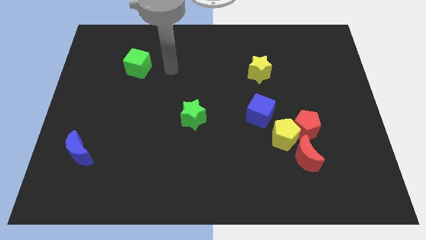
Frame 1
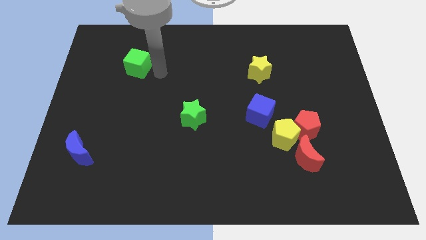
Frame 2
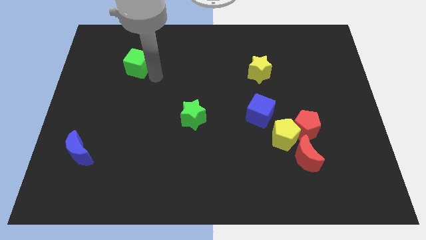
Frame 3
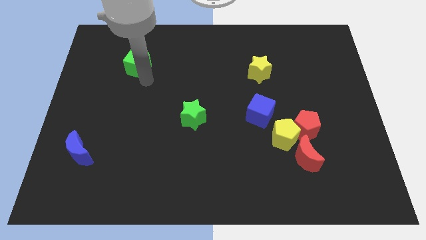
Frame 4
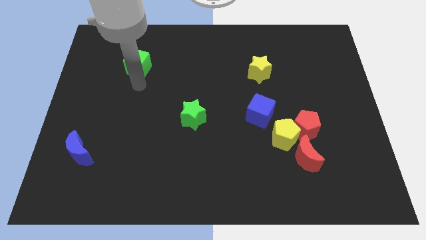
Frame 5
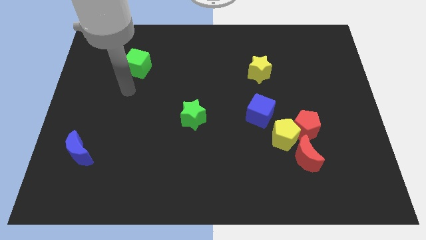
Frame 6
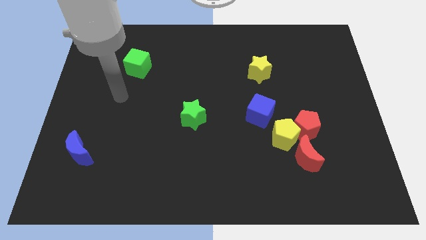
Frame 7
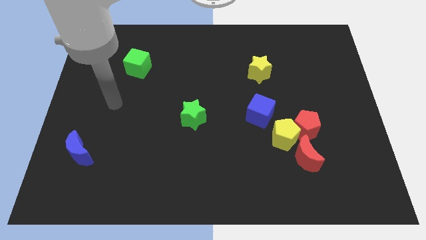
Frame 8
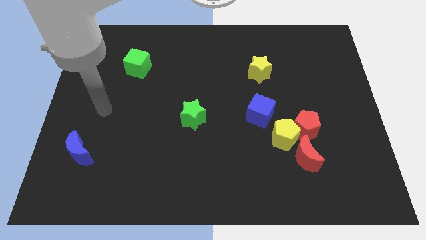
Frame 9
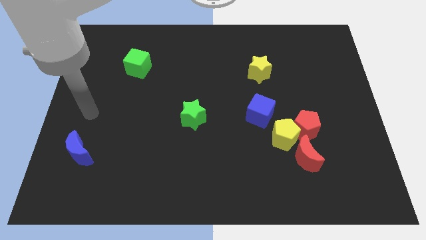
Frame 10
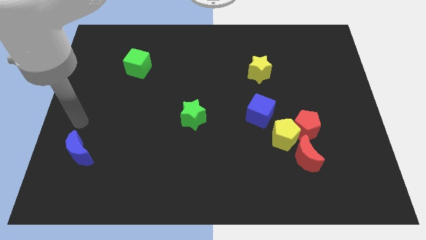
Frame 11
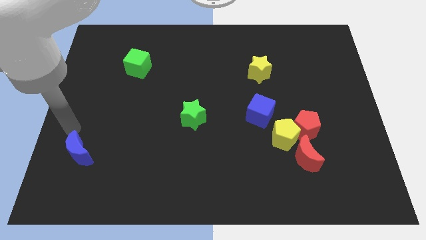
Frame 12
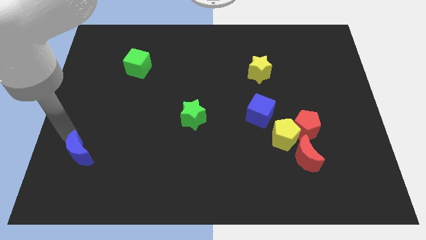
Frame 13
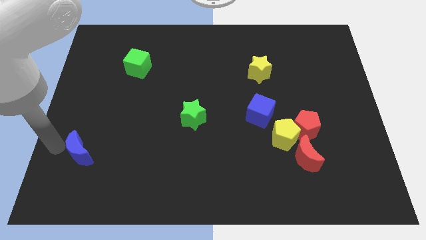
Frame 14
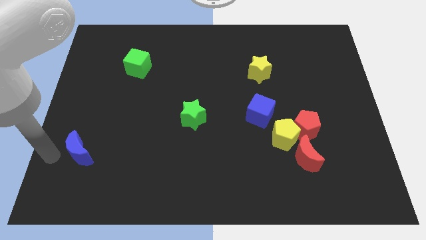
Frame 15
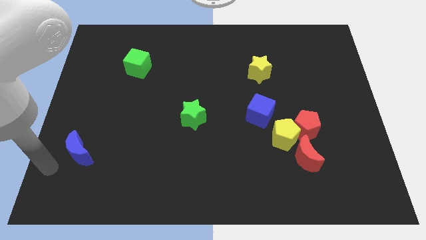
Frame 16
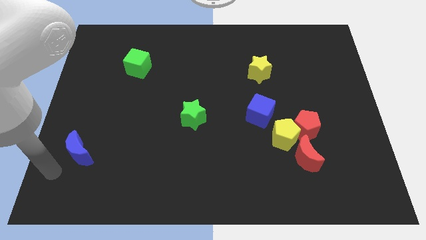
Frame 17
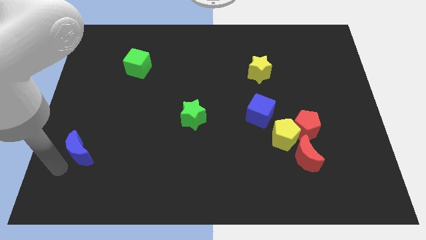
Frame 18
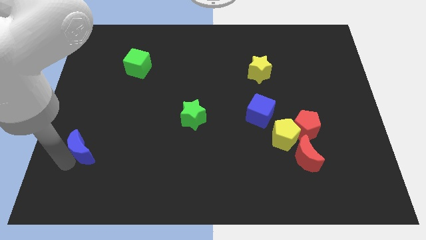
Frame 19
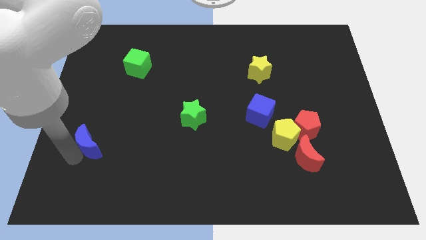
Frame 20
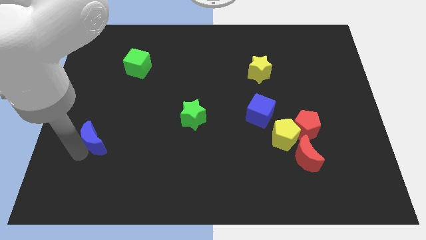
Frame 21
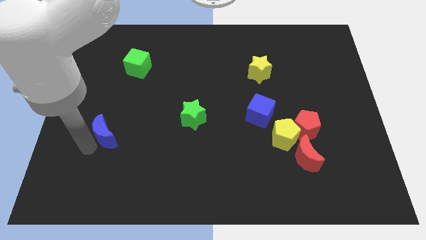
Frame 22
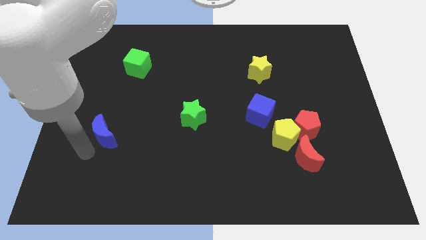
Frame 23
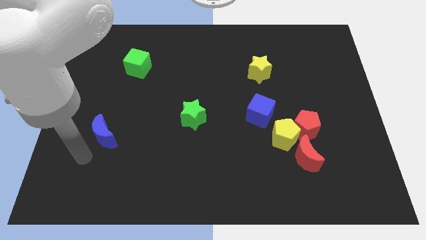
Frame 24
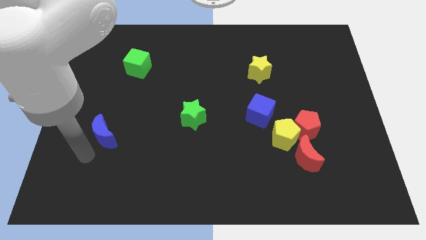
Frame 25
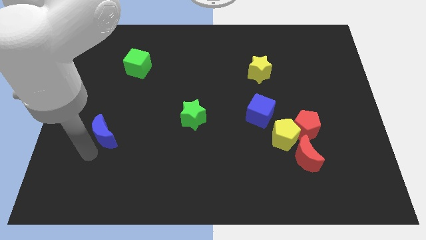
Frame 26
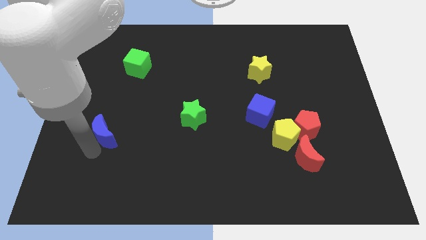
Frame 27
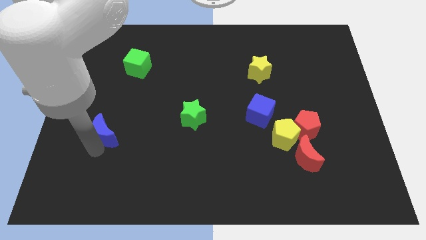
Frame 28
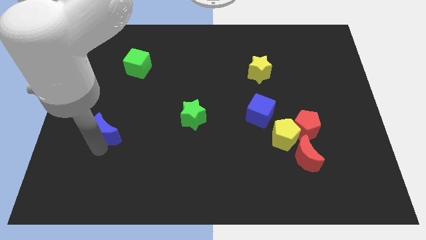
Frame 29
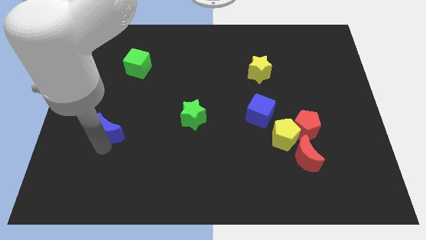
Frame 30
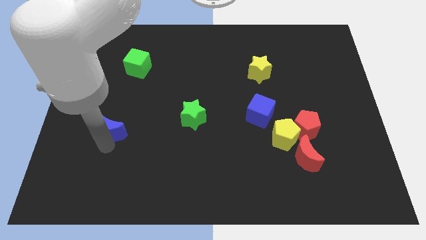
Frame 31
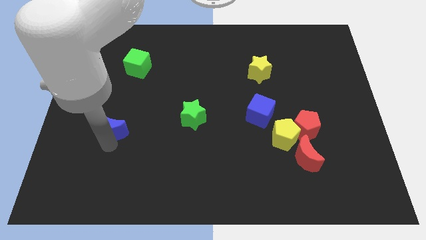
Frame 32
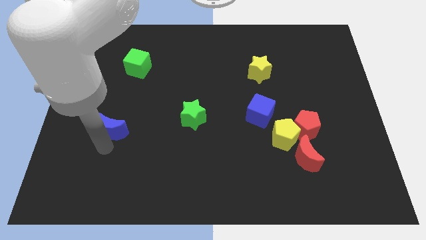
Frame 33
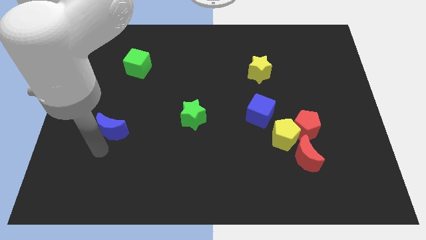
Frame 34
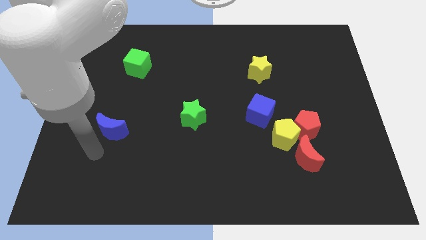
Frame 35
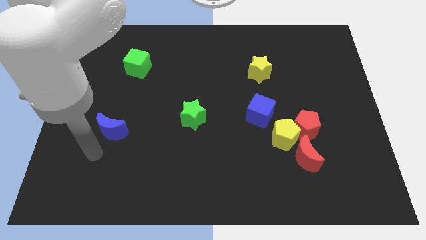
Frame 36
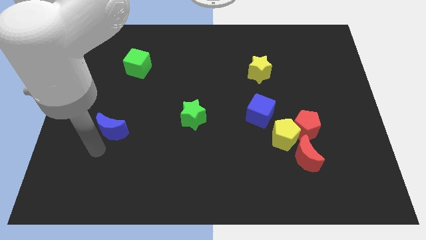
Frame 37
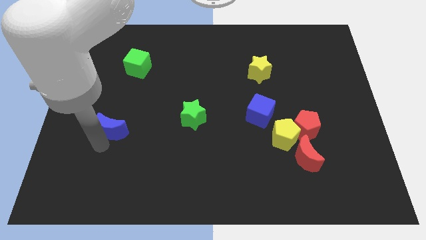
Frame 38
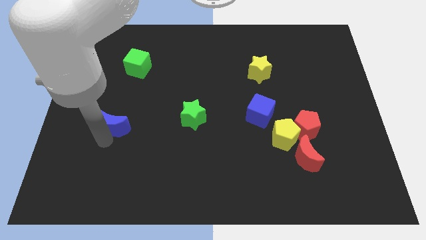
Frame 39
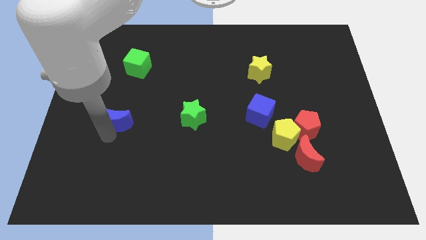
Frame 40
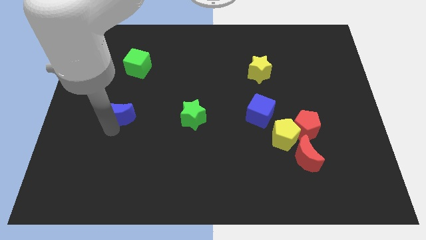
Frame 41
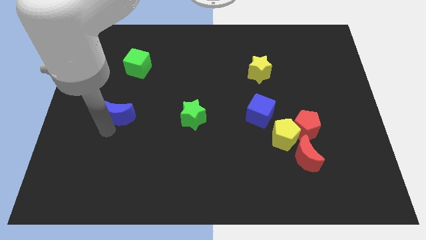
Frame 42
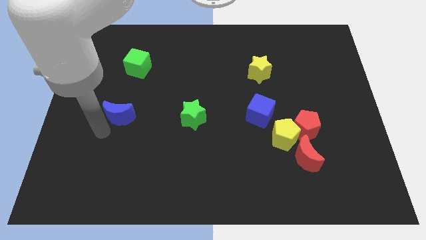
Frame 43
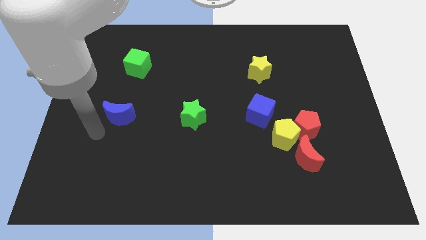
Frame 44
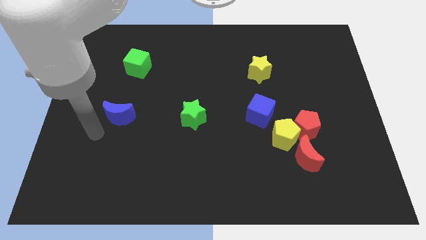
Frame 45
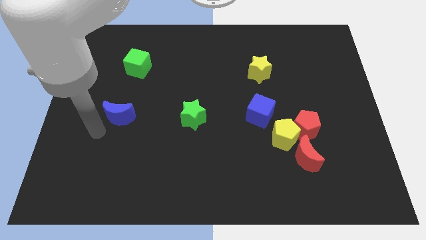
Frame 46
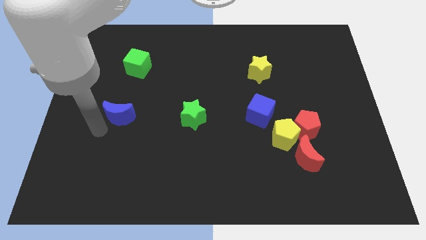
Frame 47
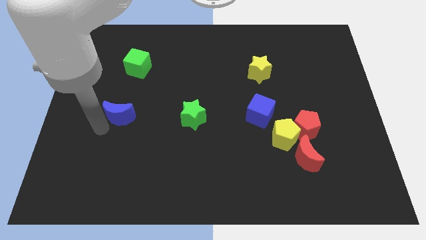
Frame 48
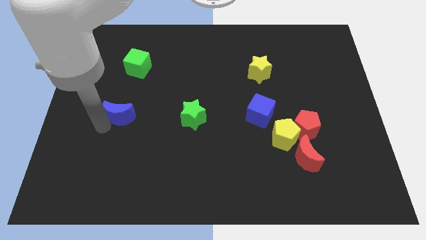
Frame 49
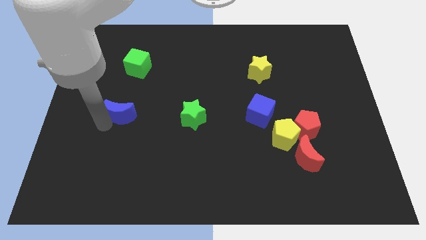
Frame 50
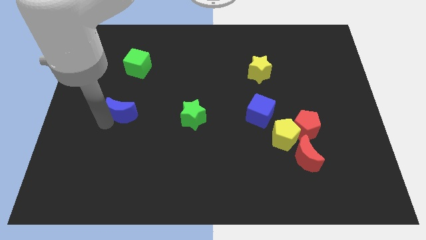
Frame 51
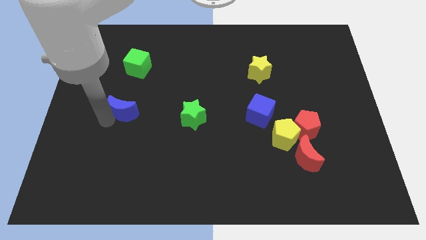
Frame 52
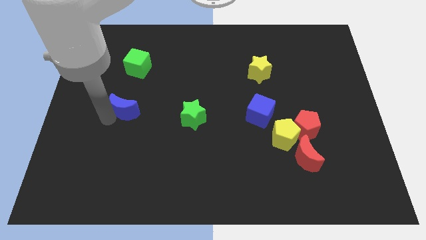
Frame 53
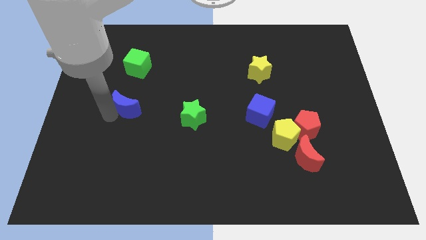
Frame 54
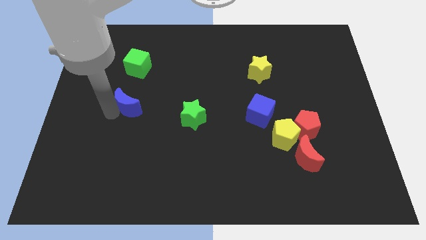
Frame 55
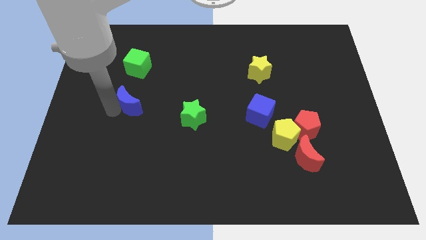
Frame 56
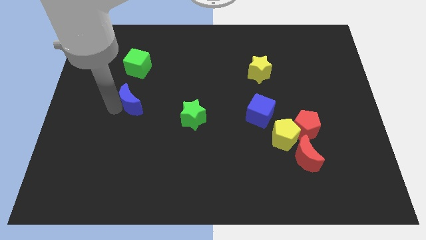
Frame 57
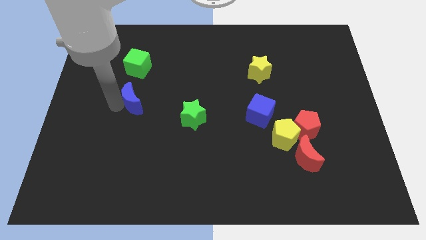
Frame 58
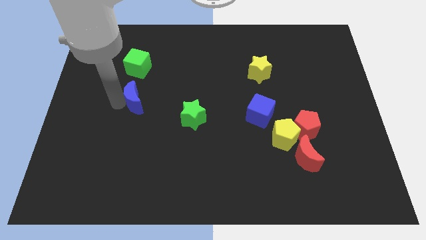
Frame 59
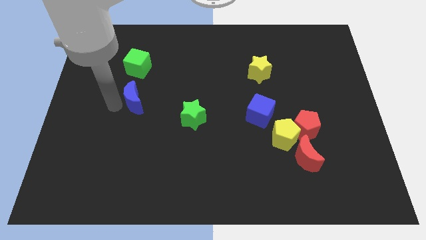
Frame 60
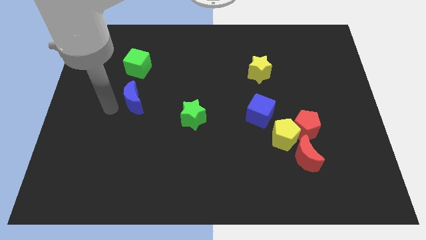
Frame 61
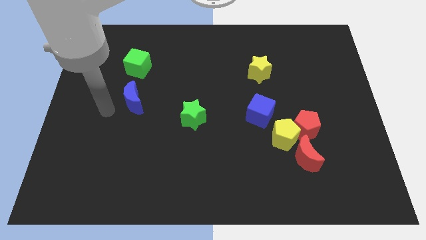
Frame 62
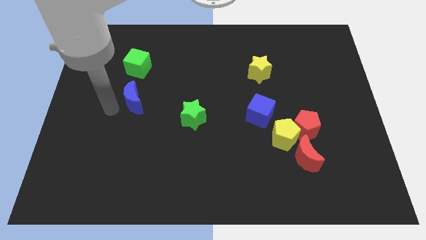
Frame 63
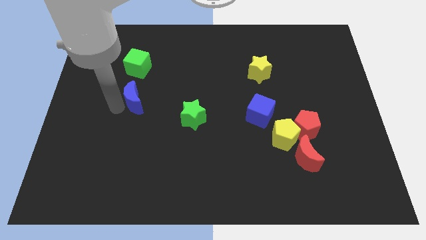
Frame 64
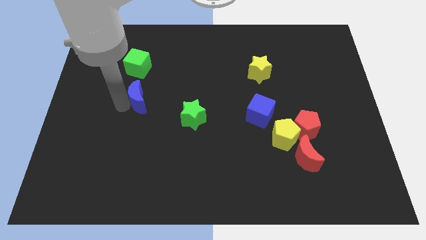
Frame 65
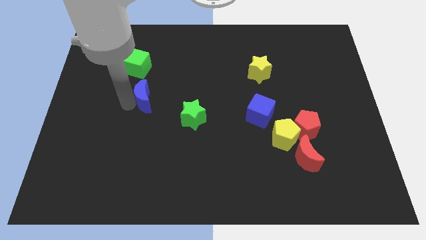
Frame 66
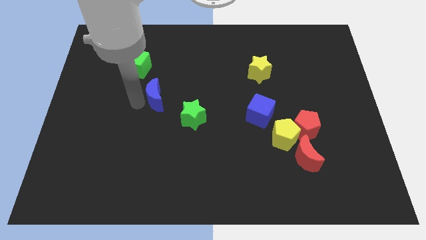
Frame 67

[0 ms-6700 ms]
slide the blue moon upwards and right

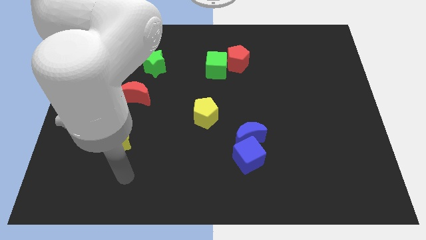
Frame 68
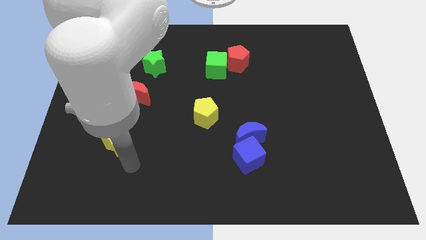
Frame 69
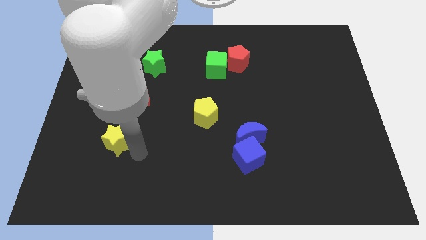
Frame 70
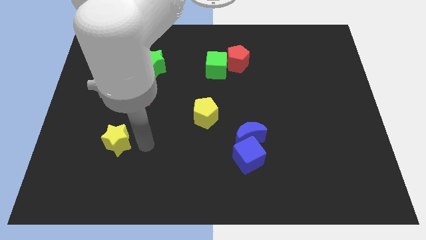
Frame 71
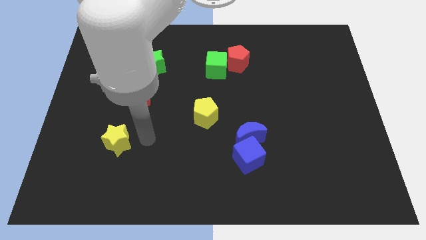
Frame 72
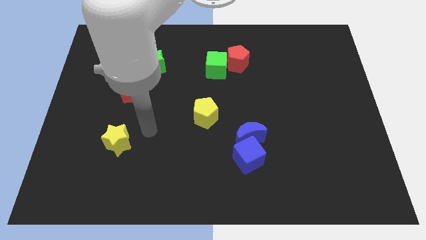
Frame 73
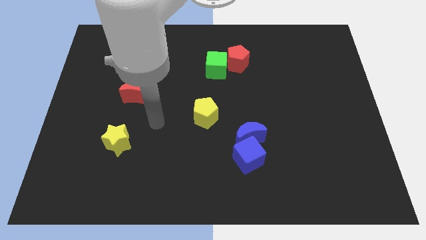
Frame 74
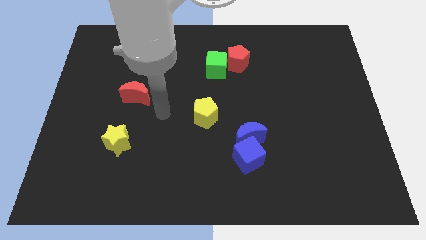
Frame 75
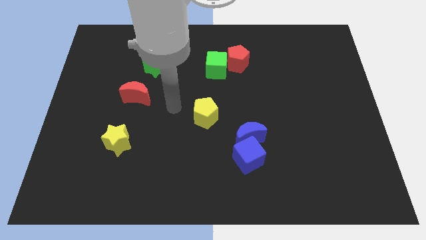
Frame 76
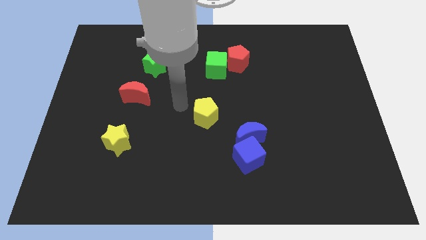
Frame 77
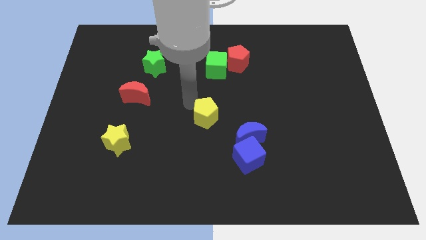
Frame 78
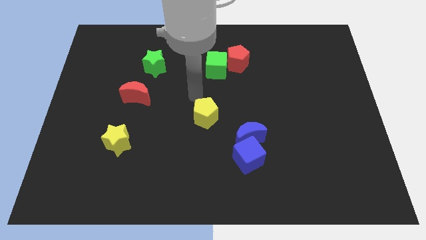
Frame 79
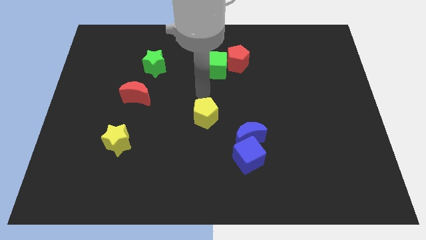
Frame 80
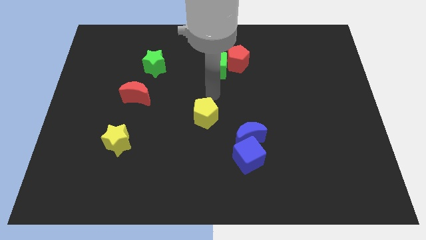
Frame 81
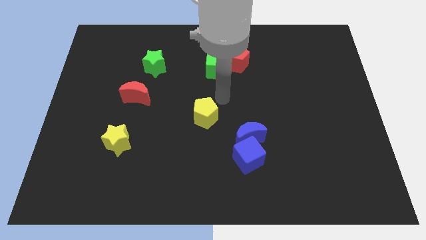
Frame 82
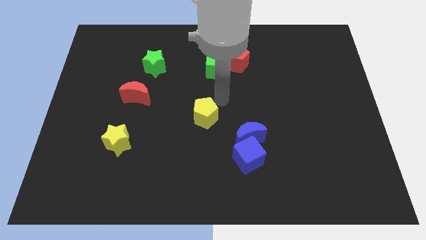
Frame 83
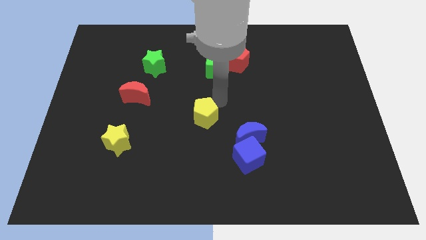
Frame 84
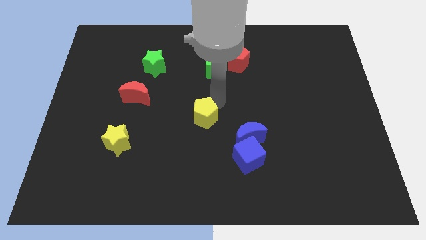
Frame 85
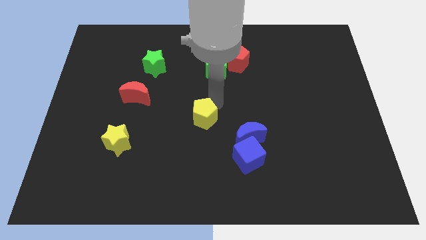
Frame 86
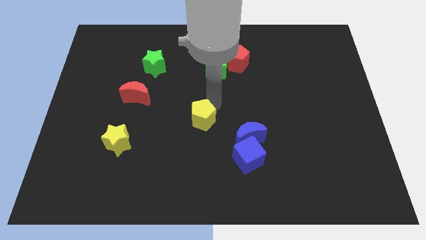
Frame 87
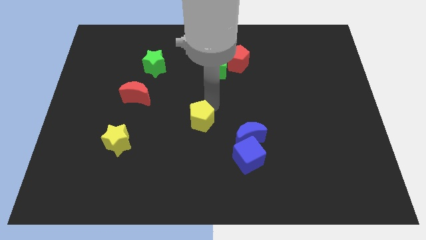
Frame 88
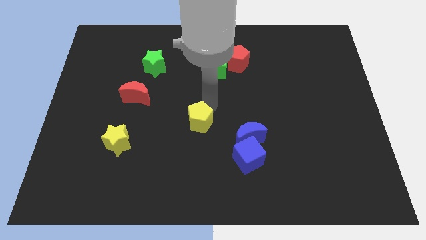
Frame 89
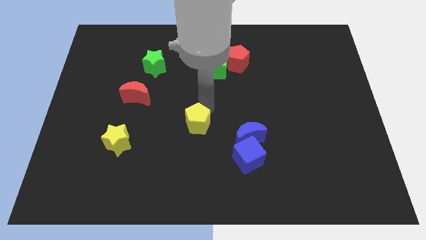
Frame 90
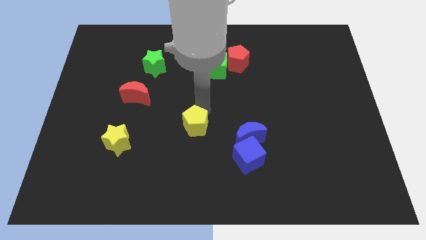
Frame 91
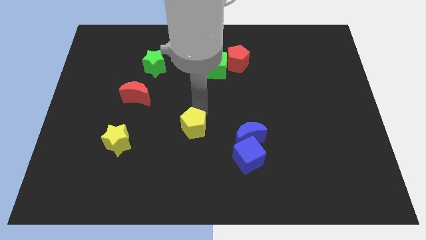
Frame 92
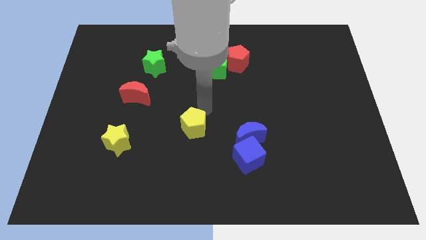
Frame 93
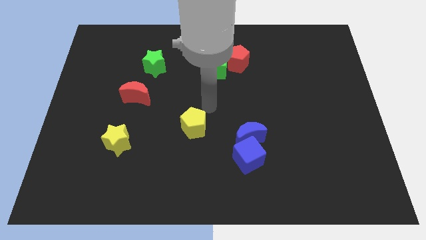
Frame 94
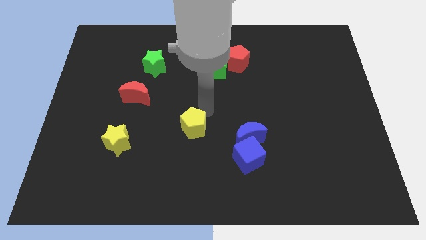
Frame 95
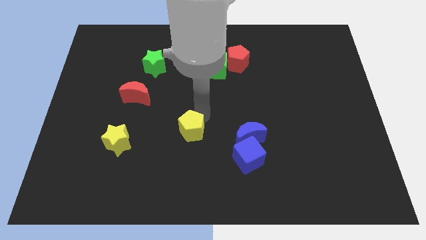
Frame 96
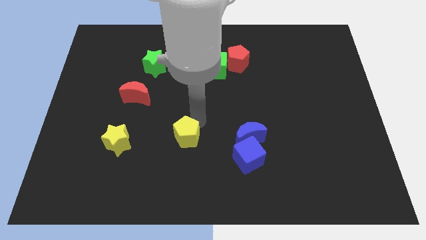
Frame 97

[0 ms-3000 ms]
move the yellow pentagon slightly downwards and to the left
